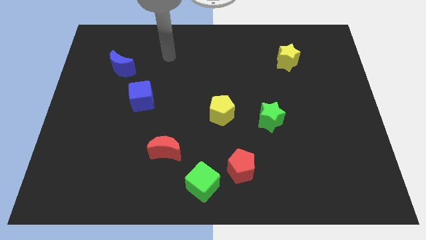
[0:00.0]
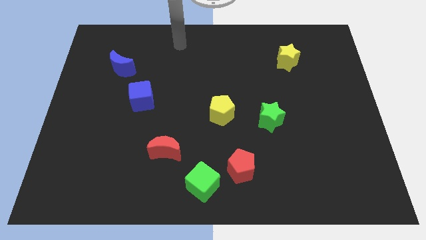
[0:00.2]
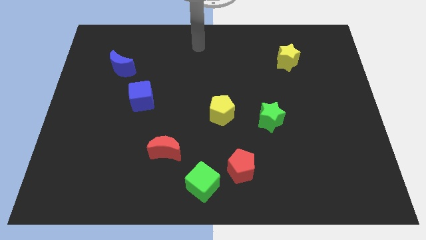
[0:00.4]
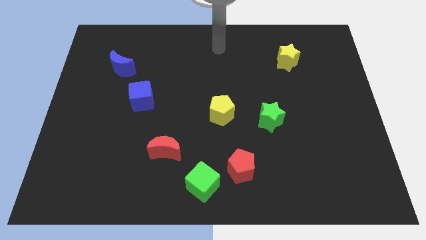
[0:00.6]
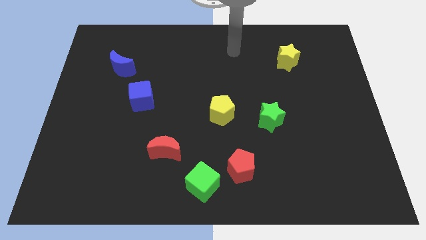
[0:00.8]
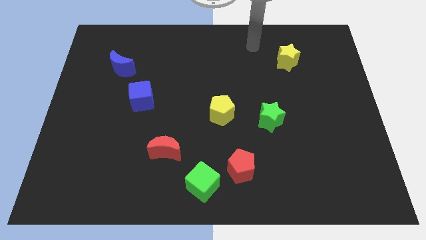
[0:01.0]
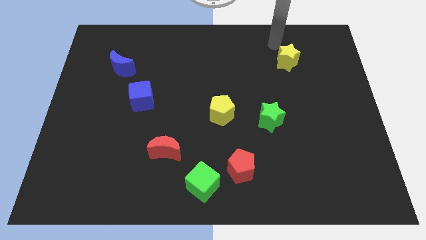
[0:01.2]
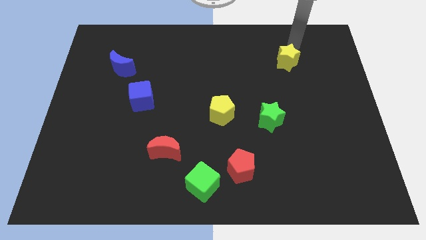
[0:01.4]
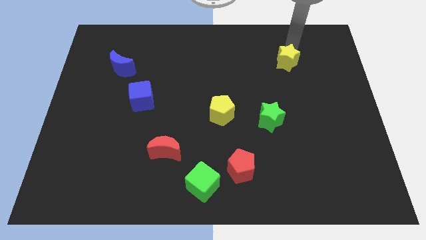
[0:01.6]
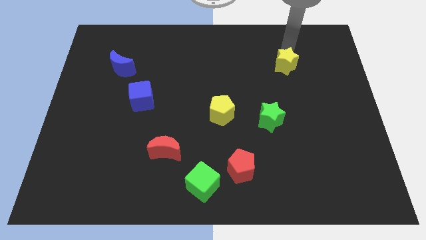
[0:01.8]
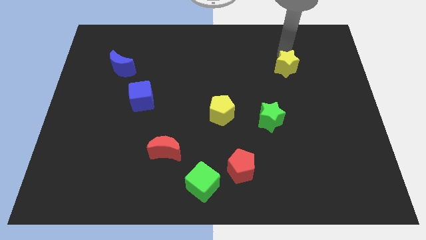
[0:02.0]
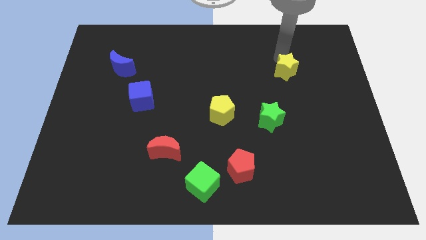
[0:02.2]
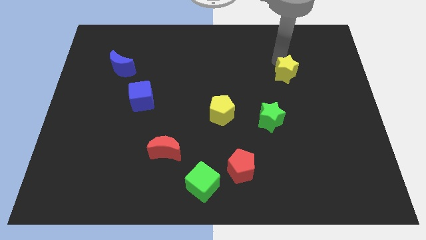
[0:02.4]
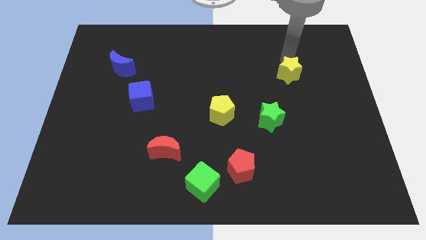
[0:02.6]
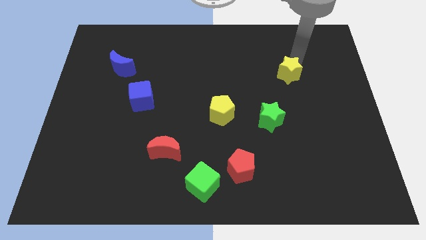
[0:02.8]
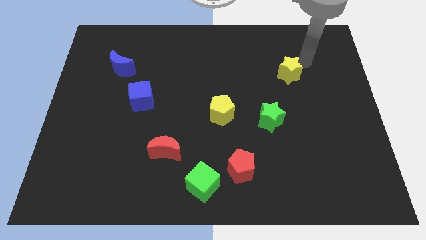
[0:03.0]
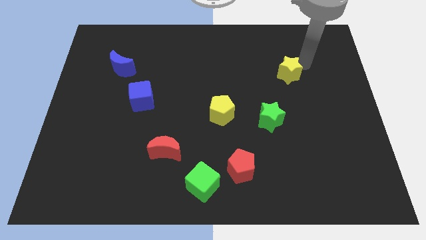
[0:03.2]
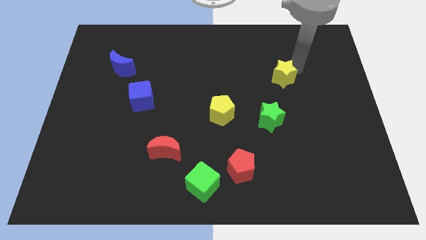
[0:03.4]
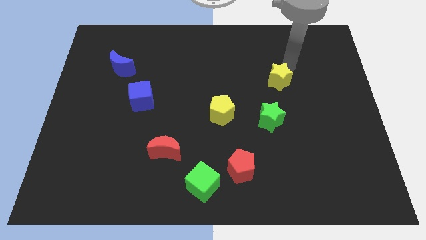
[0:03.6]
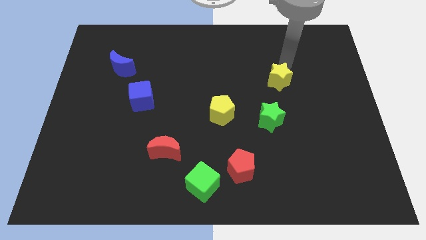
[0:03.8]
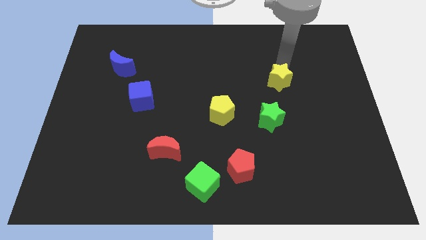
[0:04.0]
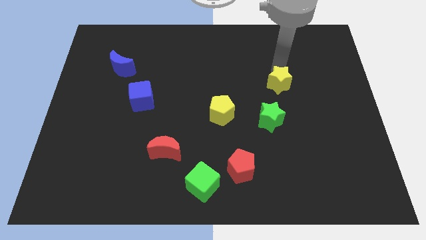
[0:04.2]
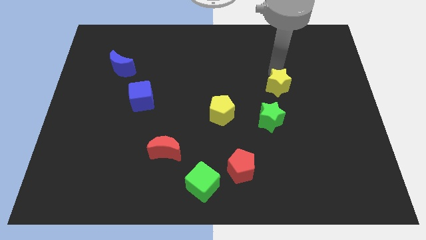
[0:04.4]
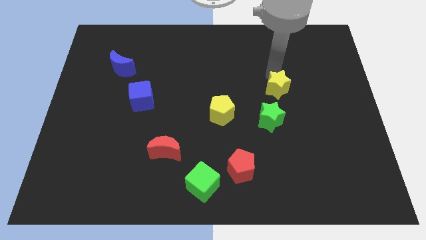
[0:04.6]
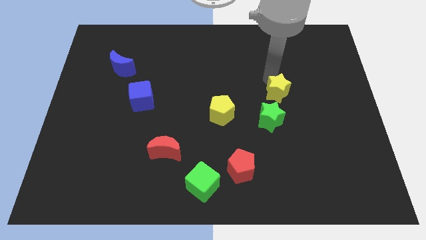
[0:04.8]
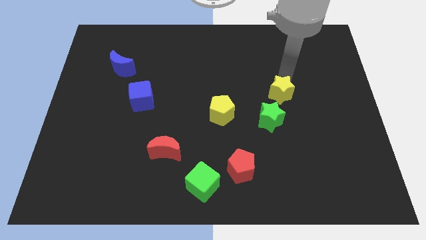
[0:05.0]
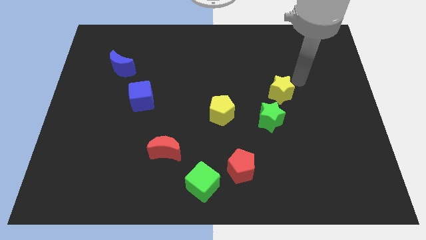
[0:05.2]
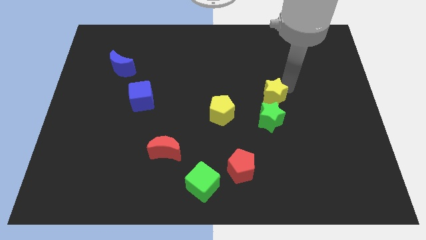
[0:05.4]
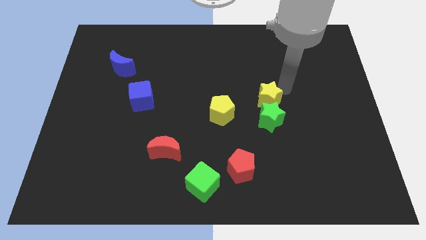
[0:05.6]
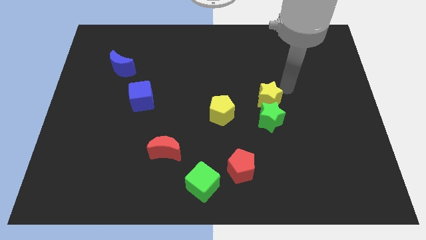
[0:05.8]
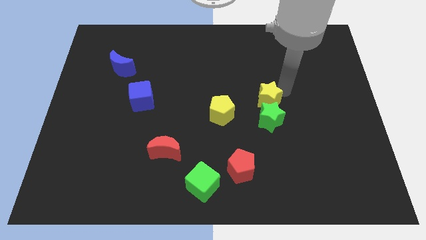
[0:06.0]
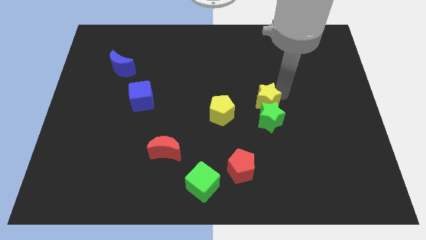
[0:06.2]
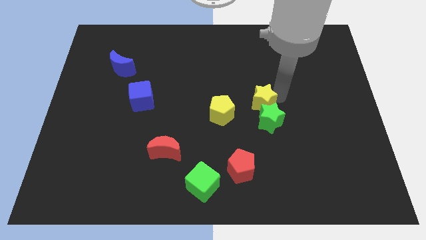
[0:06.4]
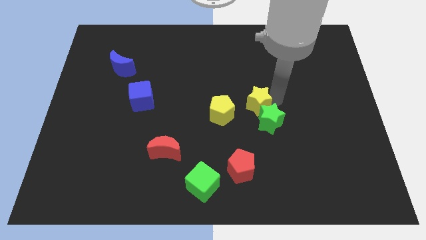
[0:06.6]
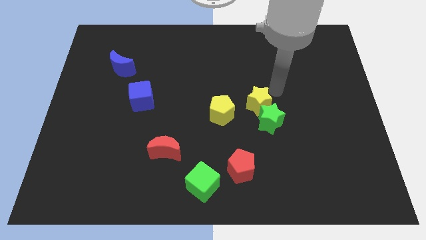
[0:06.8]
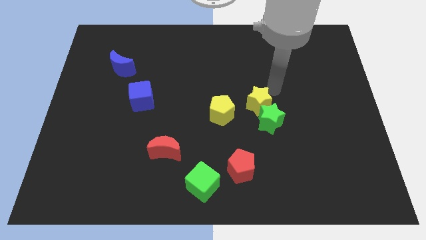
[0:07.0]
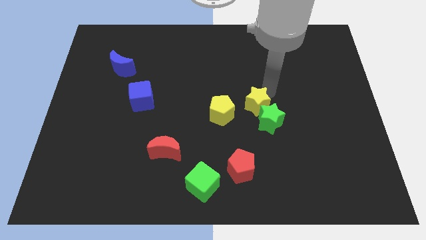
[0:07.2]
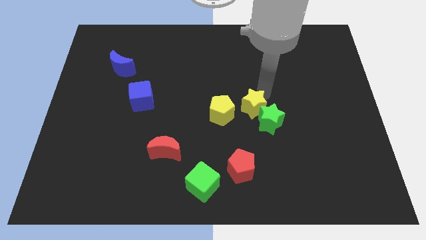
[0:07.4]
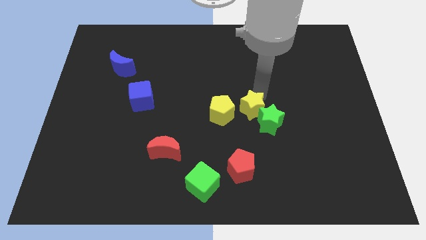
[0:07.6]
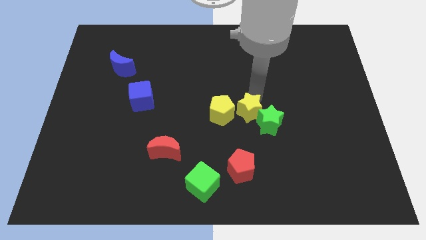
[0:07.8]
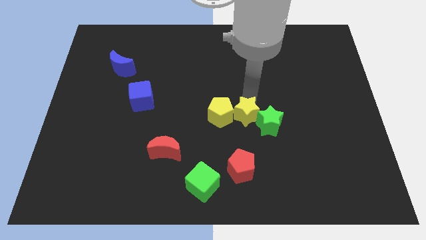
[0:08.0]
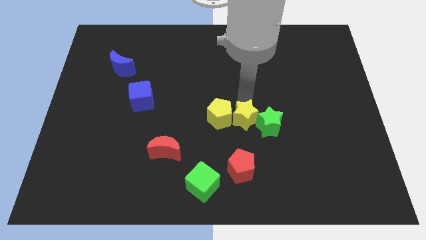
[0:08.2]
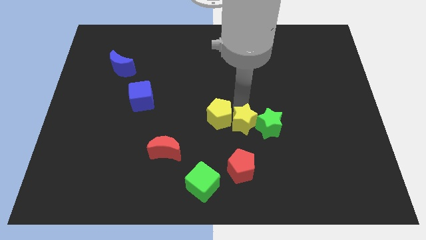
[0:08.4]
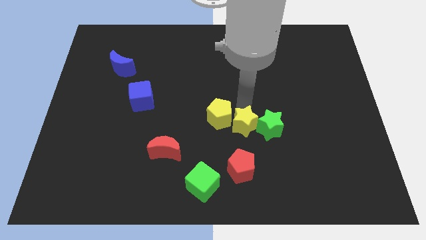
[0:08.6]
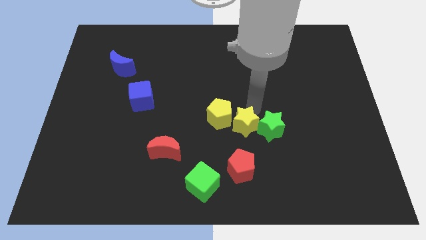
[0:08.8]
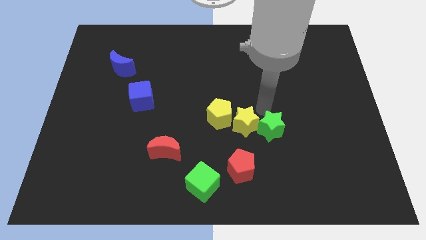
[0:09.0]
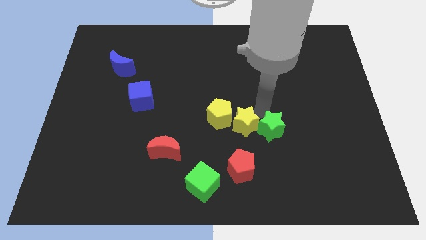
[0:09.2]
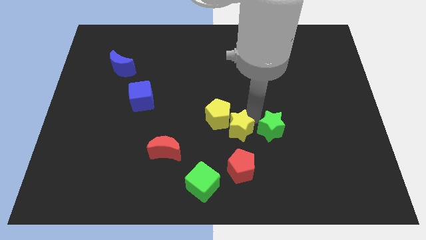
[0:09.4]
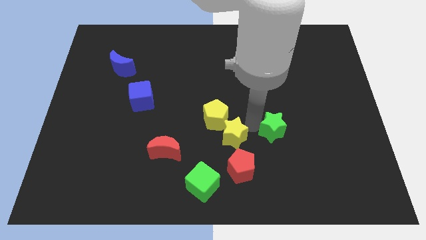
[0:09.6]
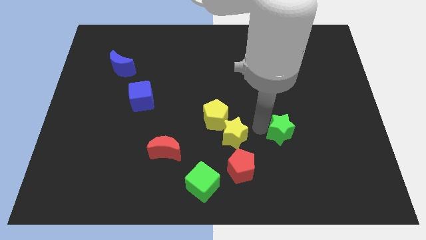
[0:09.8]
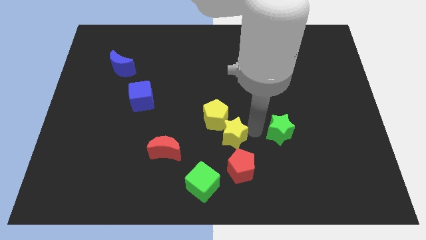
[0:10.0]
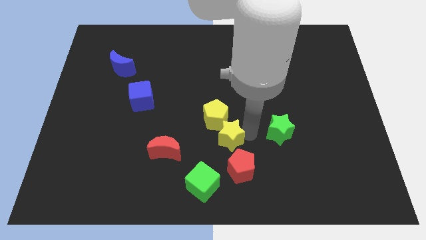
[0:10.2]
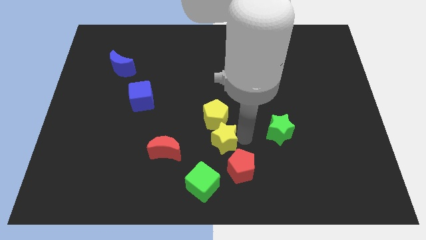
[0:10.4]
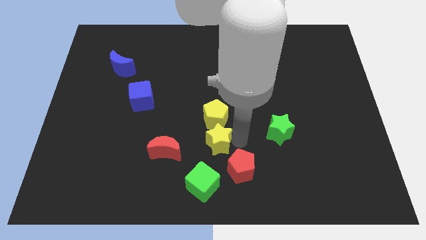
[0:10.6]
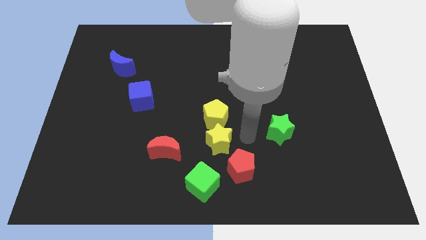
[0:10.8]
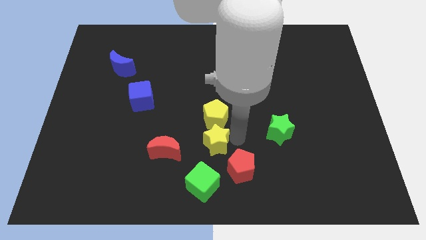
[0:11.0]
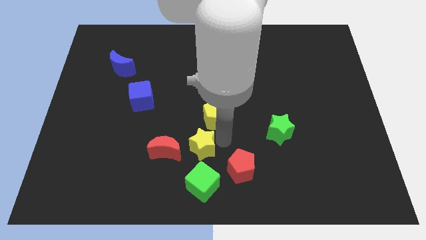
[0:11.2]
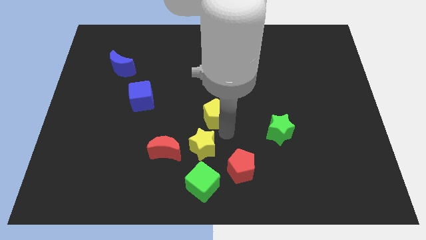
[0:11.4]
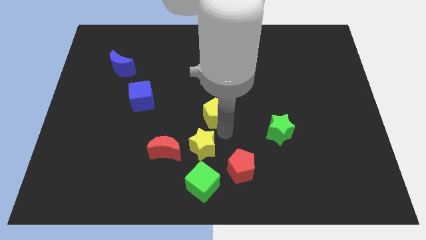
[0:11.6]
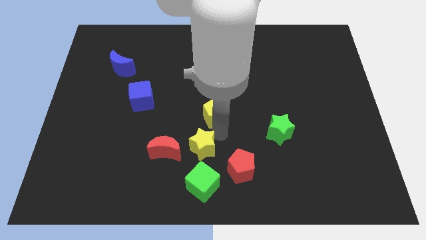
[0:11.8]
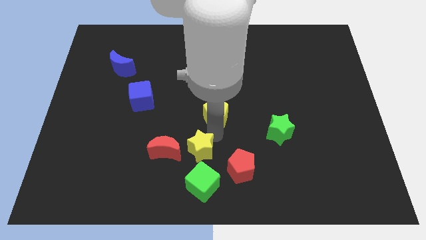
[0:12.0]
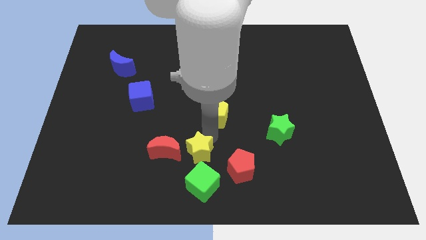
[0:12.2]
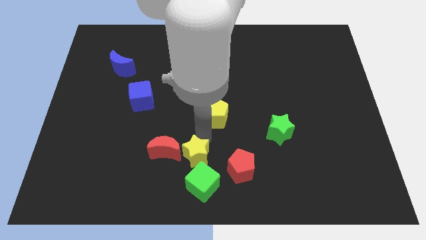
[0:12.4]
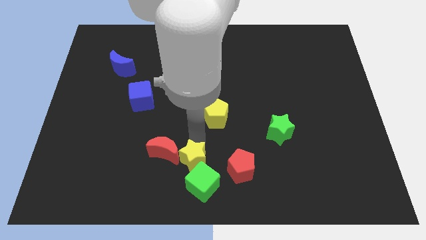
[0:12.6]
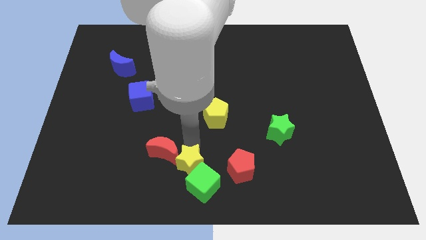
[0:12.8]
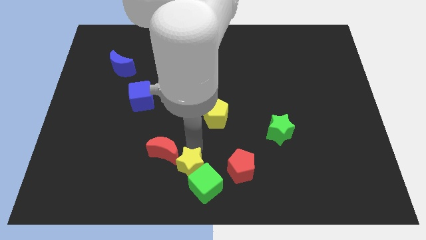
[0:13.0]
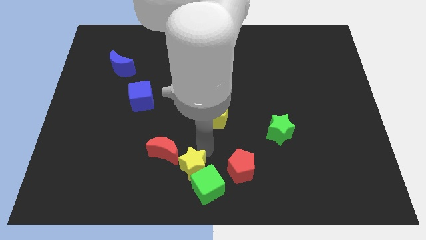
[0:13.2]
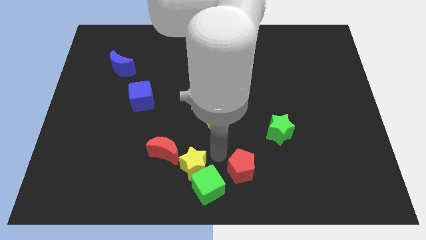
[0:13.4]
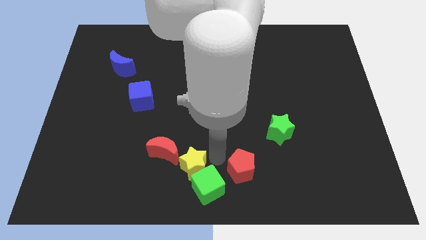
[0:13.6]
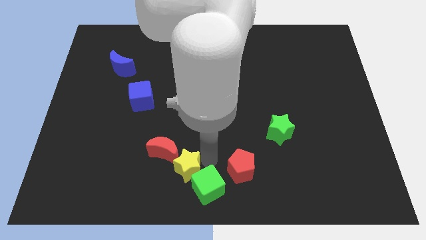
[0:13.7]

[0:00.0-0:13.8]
put the yellow star left of the green cube

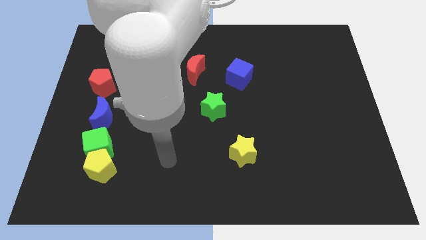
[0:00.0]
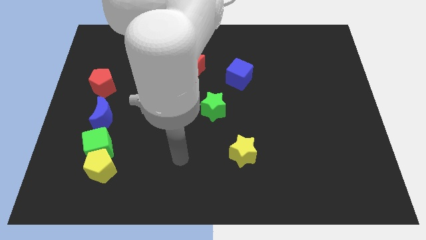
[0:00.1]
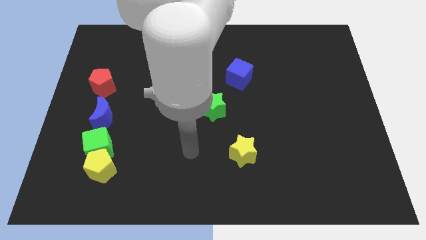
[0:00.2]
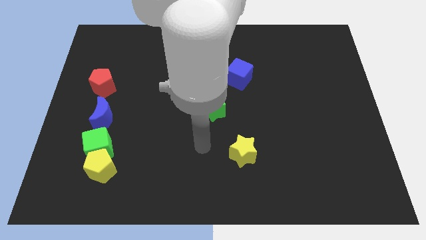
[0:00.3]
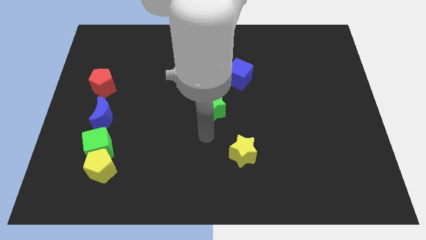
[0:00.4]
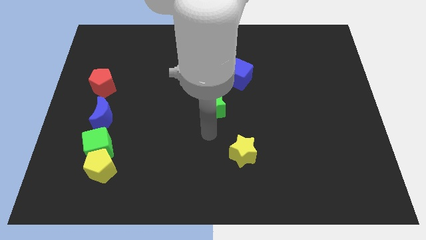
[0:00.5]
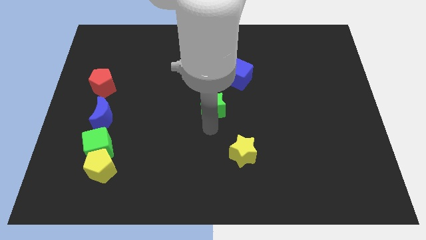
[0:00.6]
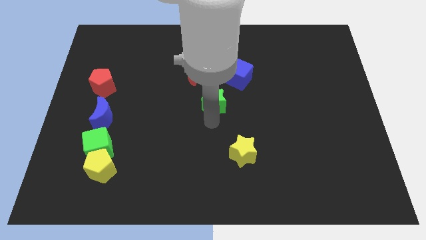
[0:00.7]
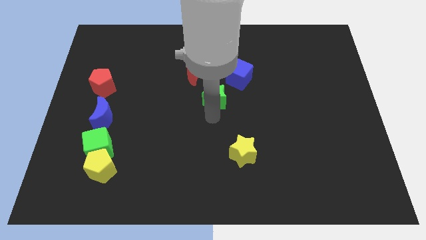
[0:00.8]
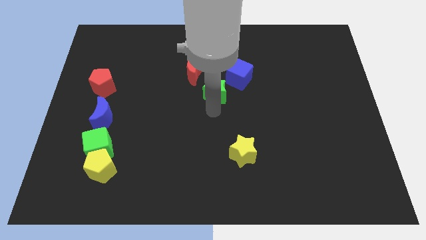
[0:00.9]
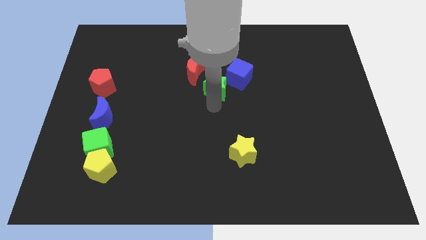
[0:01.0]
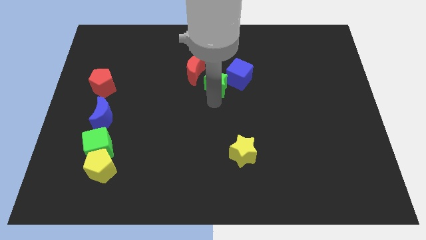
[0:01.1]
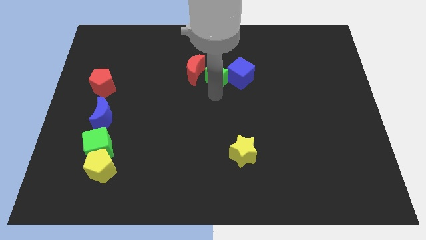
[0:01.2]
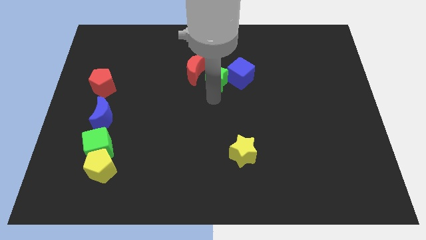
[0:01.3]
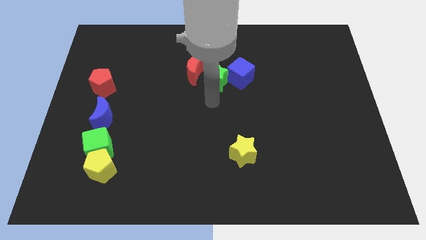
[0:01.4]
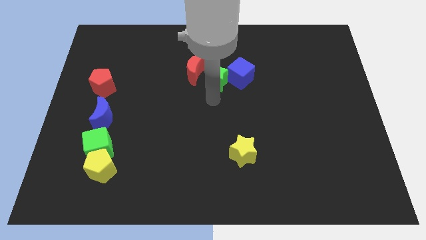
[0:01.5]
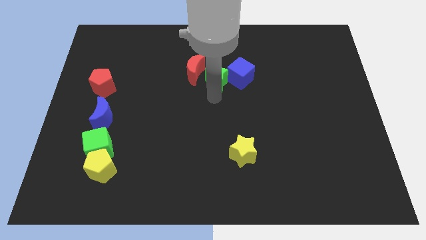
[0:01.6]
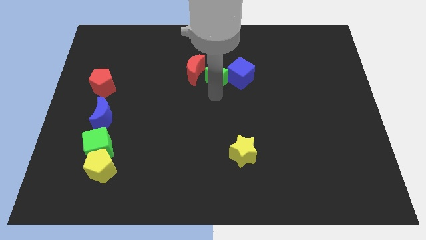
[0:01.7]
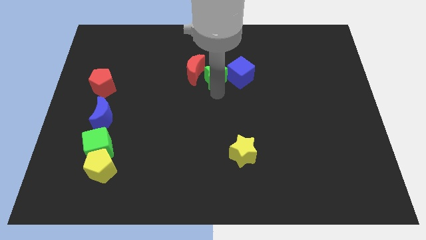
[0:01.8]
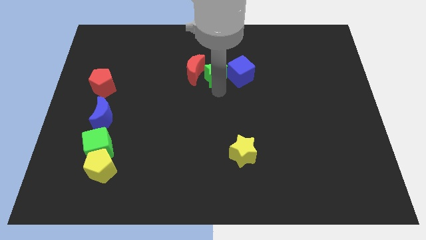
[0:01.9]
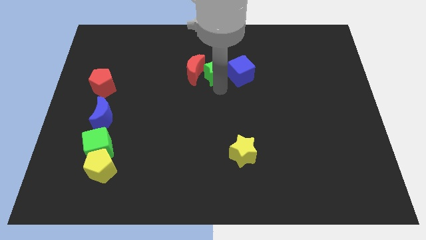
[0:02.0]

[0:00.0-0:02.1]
put the green star to the top left side of the blue cube
